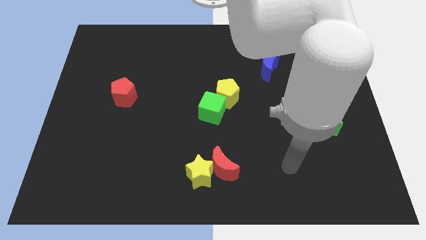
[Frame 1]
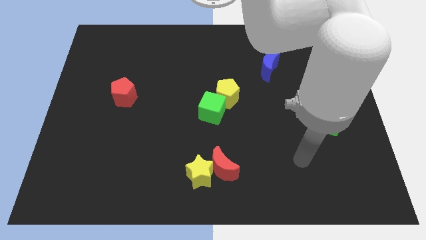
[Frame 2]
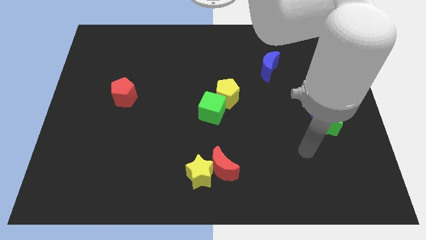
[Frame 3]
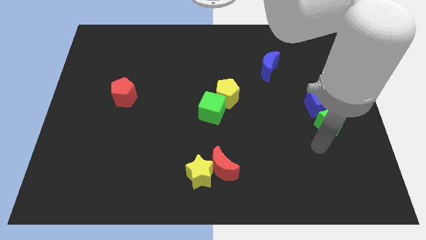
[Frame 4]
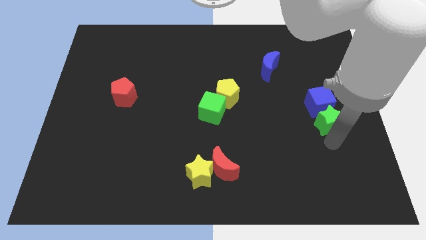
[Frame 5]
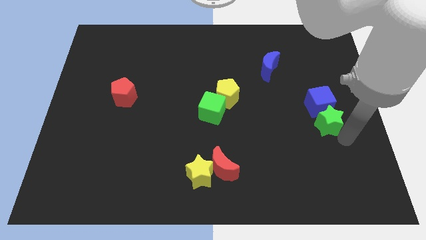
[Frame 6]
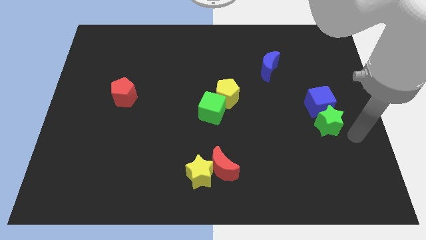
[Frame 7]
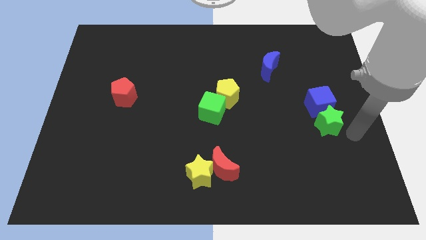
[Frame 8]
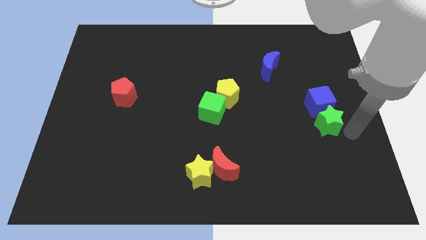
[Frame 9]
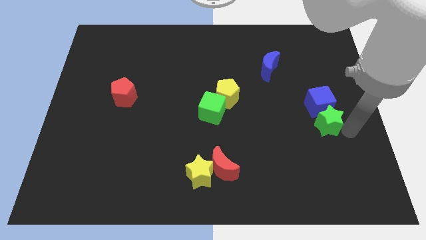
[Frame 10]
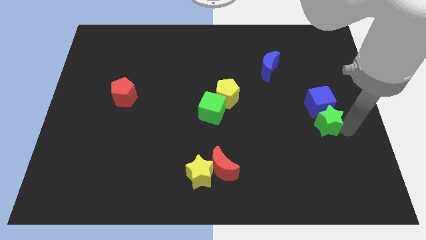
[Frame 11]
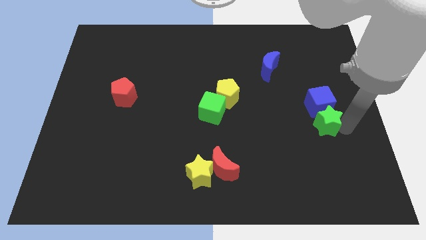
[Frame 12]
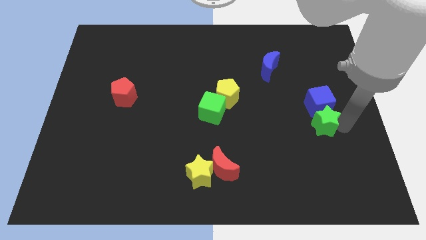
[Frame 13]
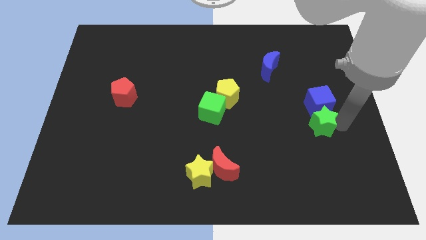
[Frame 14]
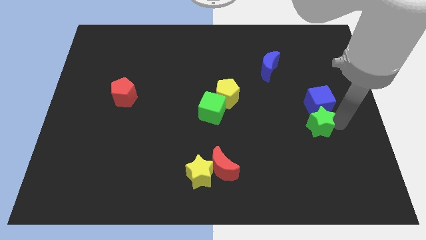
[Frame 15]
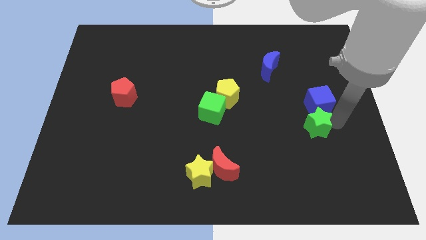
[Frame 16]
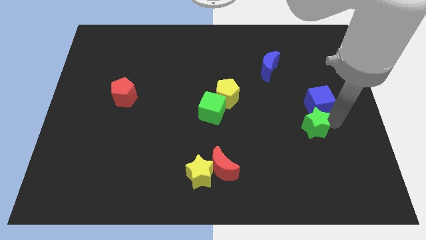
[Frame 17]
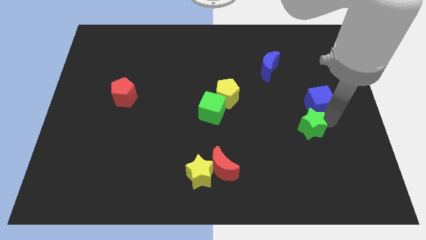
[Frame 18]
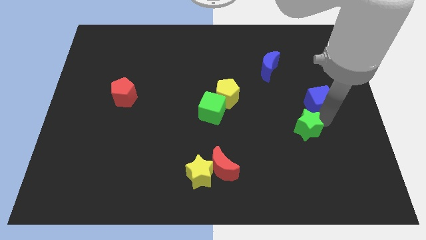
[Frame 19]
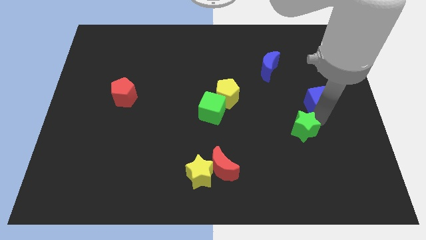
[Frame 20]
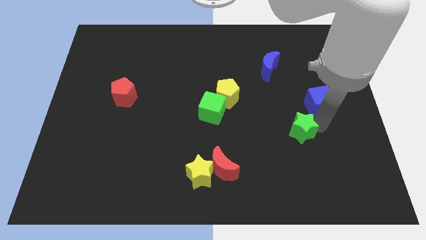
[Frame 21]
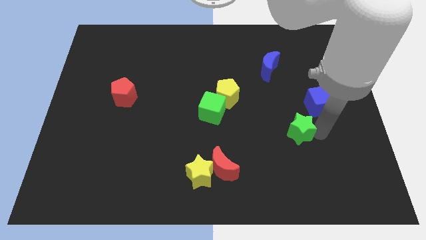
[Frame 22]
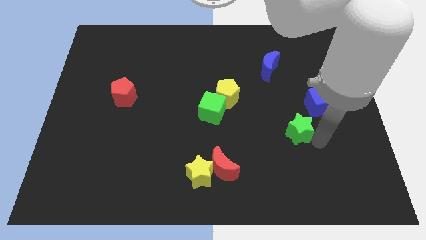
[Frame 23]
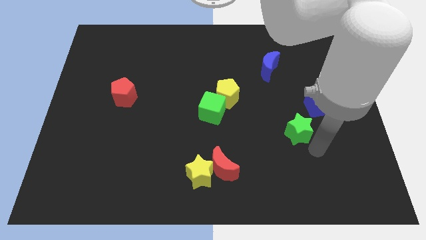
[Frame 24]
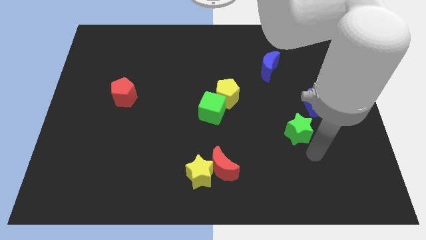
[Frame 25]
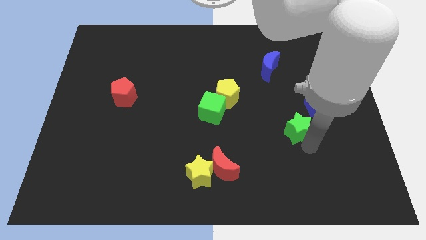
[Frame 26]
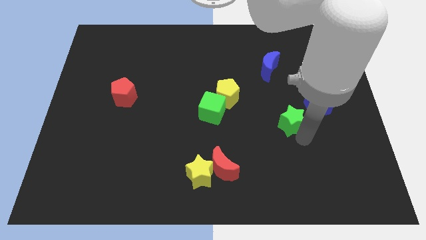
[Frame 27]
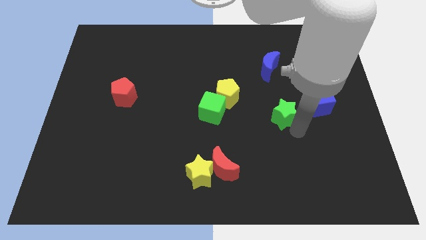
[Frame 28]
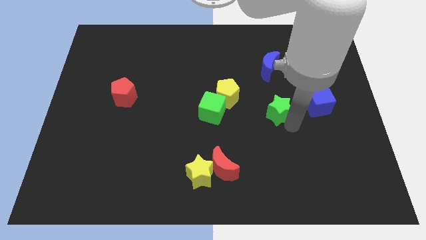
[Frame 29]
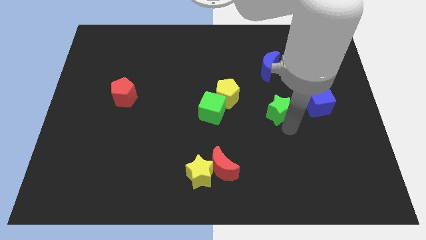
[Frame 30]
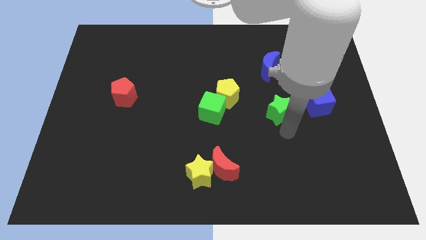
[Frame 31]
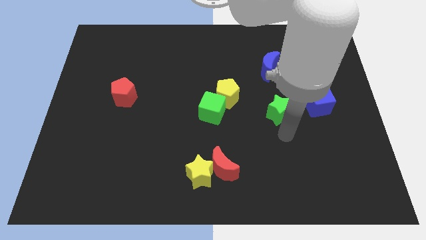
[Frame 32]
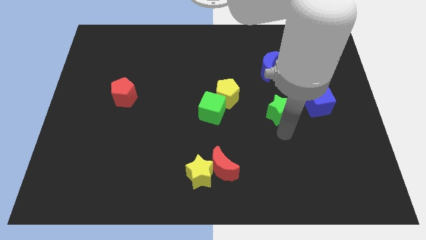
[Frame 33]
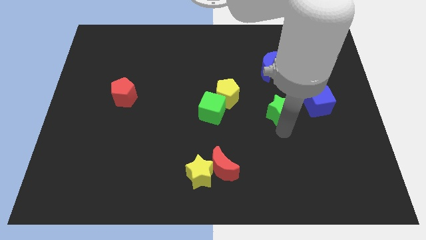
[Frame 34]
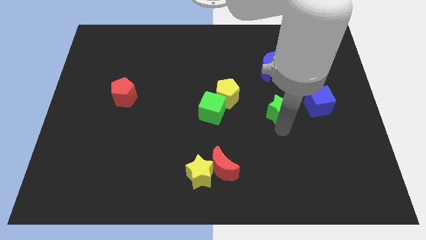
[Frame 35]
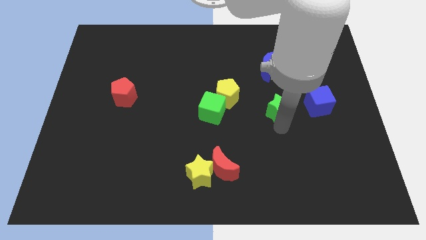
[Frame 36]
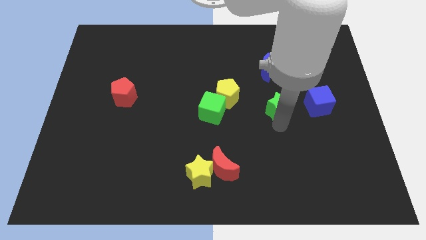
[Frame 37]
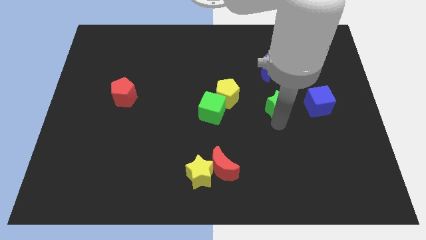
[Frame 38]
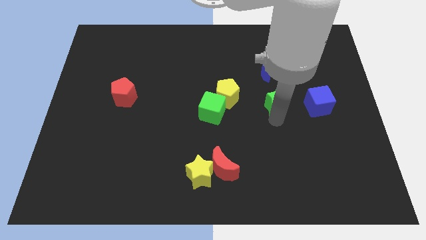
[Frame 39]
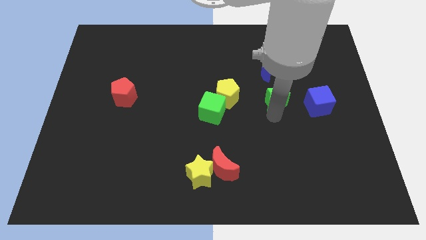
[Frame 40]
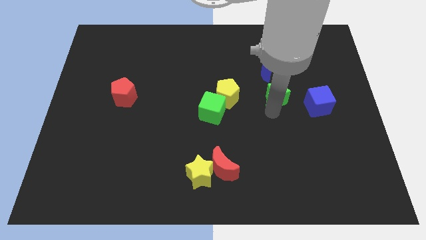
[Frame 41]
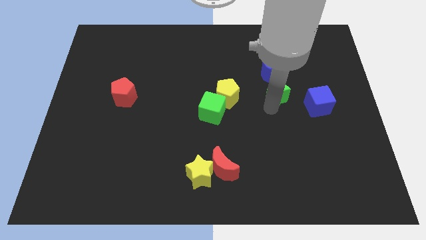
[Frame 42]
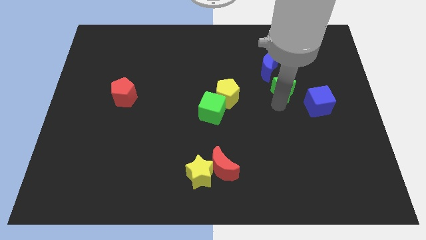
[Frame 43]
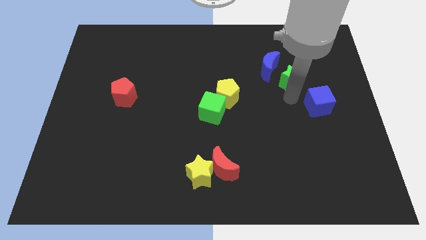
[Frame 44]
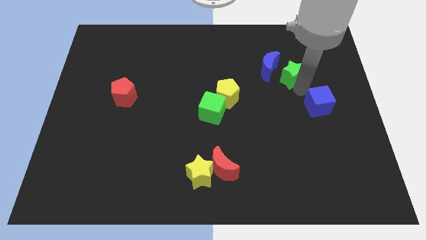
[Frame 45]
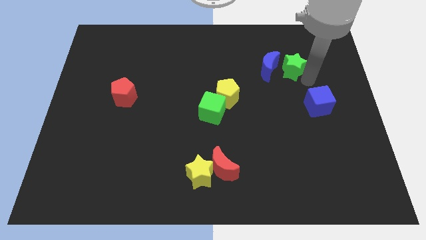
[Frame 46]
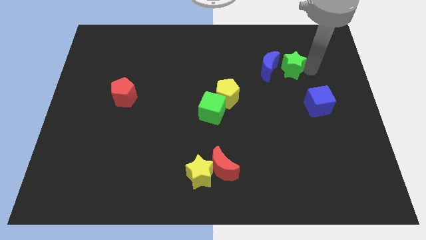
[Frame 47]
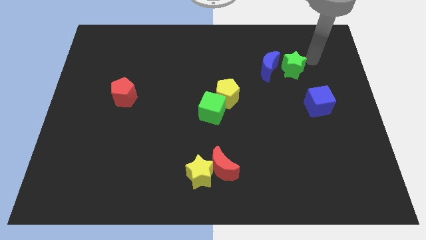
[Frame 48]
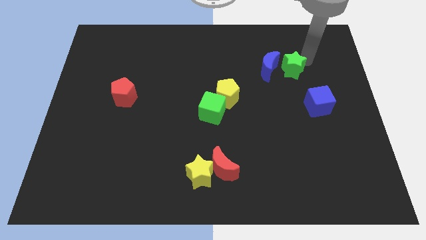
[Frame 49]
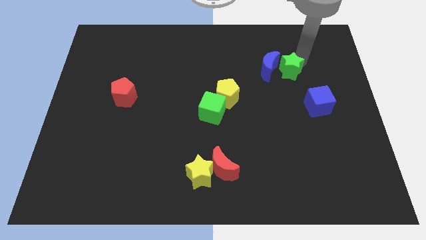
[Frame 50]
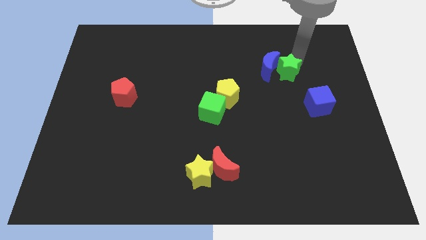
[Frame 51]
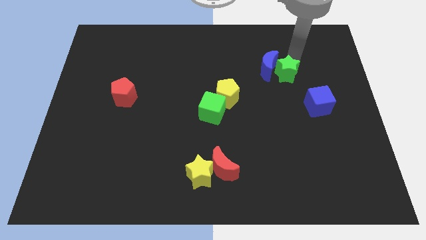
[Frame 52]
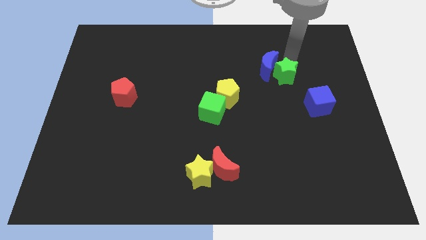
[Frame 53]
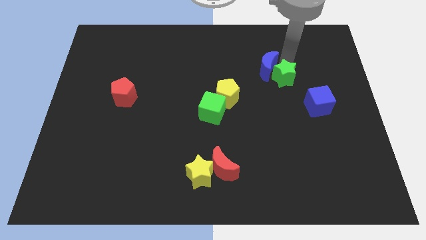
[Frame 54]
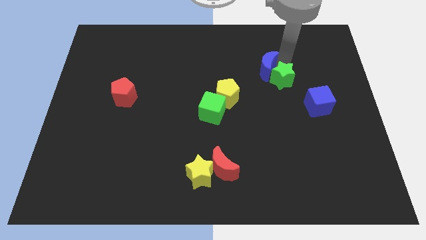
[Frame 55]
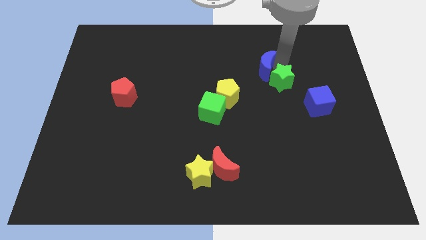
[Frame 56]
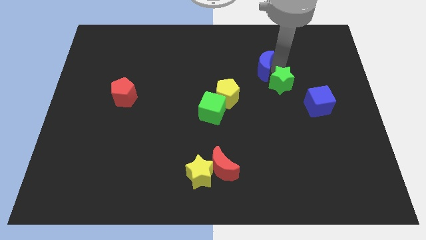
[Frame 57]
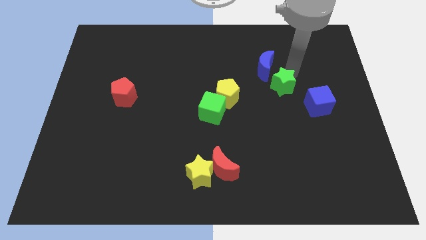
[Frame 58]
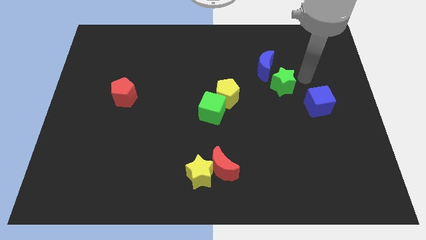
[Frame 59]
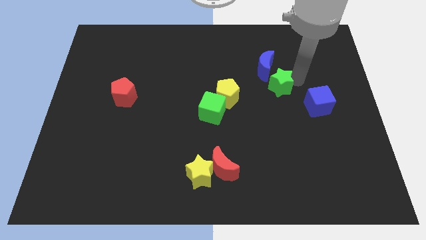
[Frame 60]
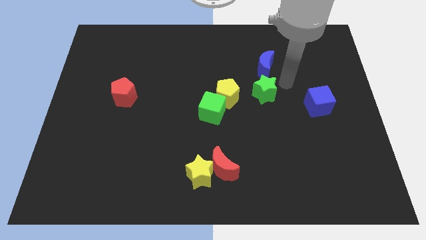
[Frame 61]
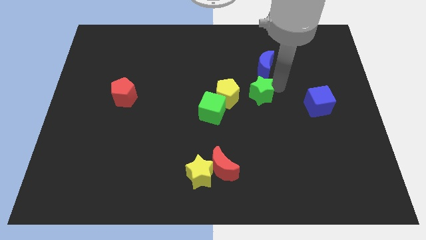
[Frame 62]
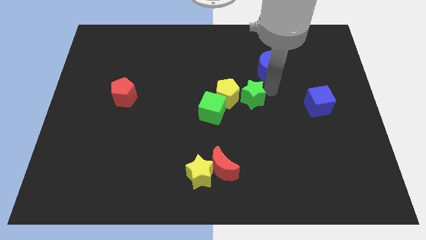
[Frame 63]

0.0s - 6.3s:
push the green star close to the yellow pentagon

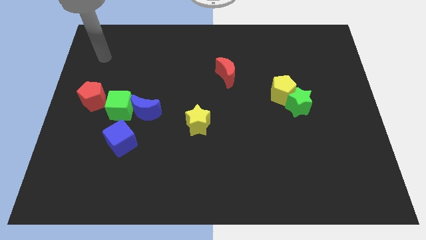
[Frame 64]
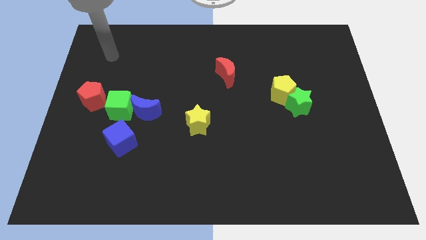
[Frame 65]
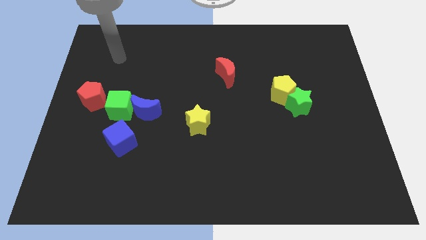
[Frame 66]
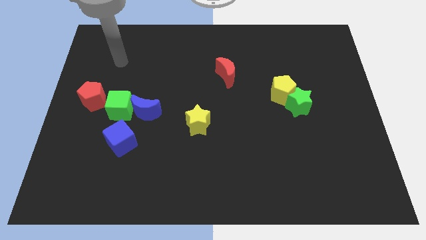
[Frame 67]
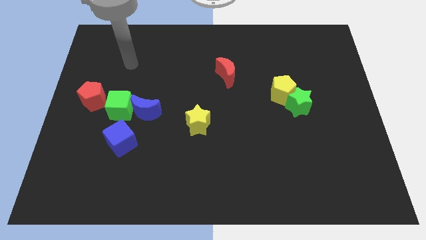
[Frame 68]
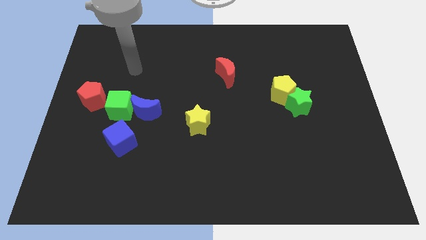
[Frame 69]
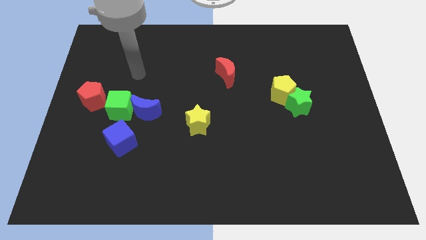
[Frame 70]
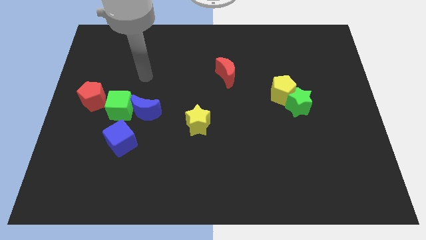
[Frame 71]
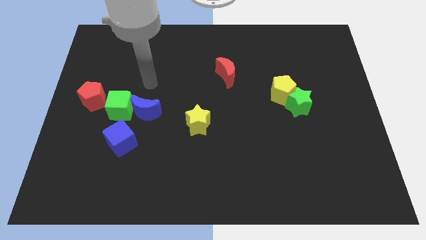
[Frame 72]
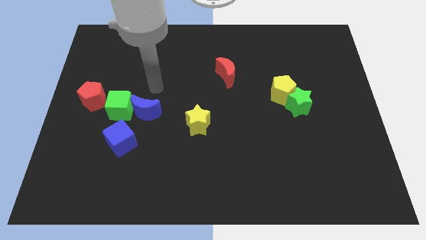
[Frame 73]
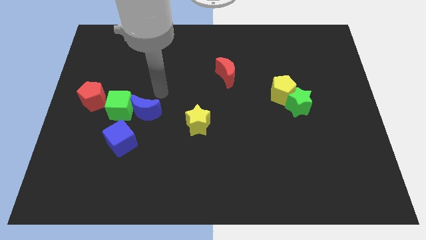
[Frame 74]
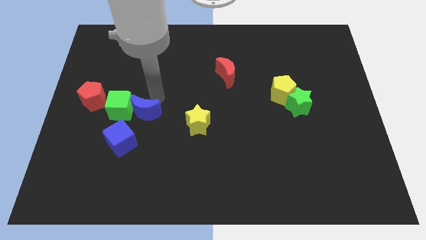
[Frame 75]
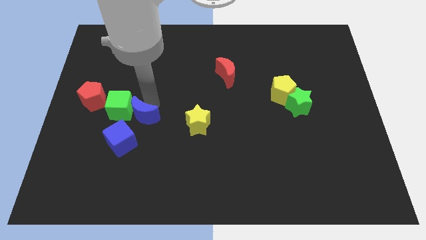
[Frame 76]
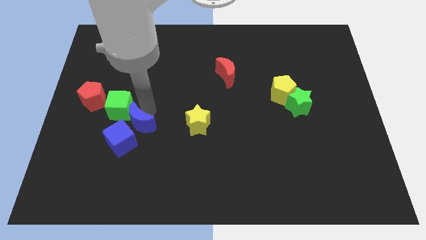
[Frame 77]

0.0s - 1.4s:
put the blue moon towards the blue cube
